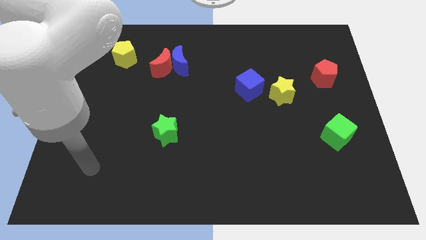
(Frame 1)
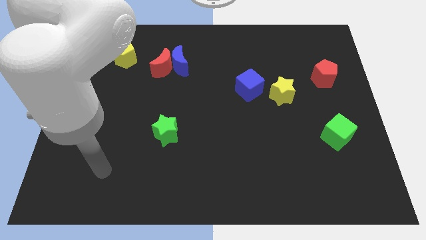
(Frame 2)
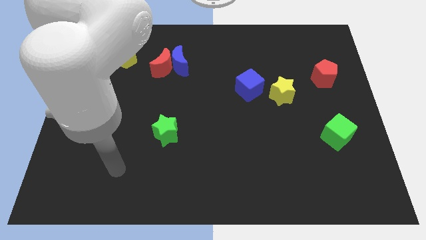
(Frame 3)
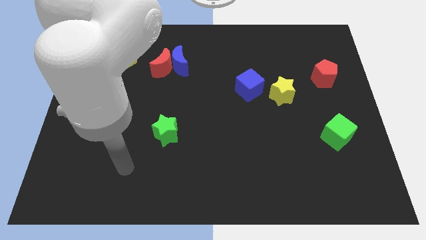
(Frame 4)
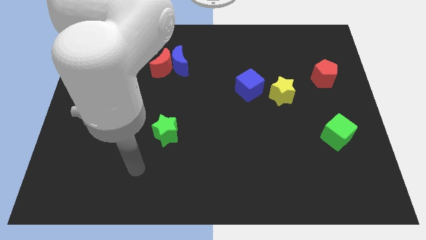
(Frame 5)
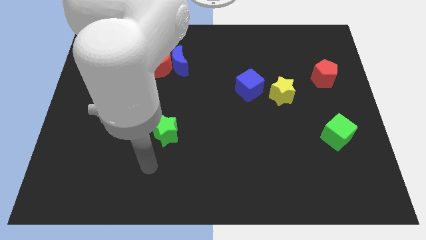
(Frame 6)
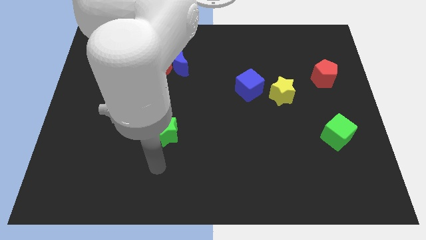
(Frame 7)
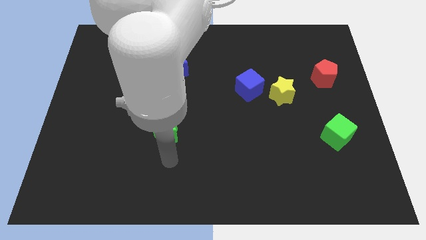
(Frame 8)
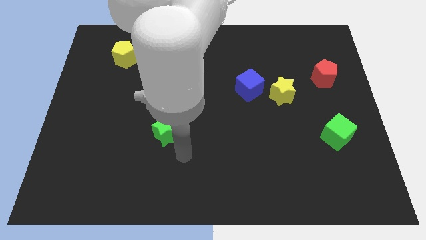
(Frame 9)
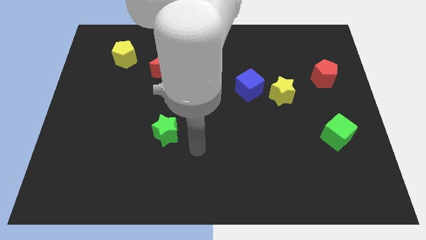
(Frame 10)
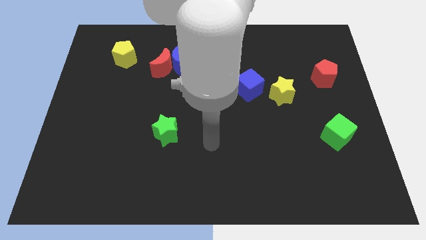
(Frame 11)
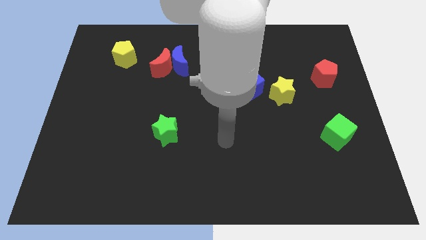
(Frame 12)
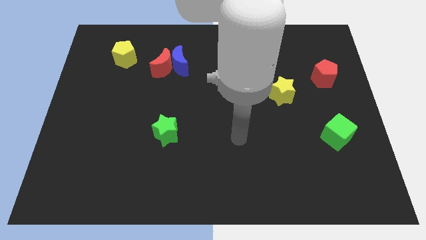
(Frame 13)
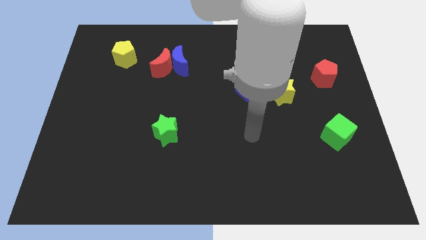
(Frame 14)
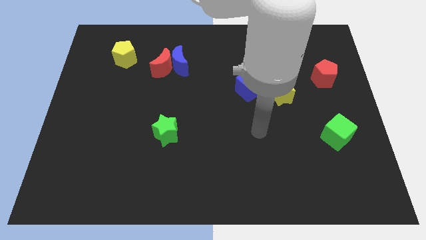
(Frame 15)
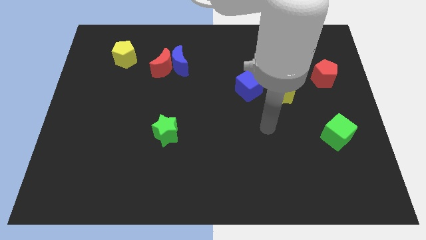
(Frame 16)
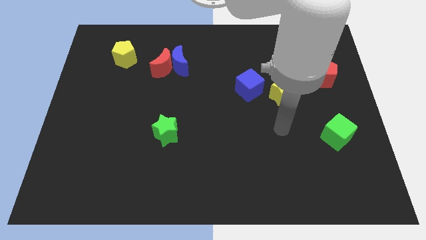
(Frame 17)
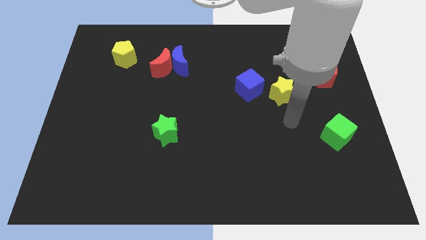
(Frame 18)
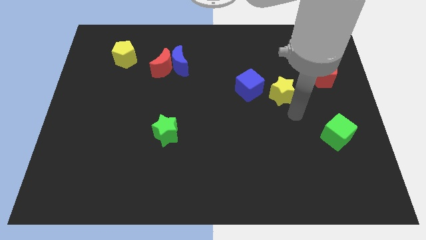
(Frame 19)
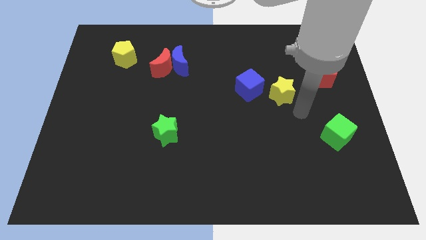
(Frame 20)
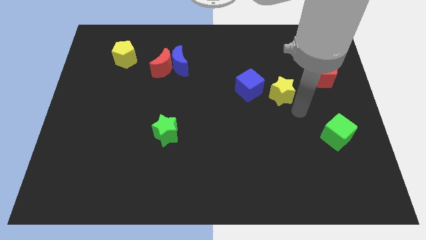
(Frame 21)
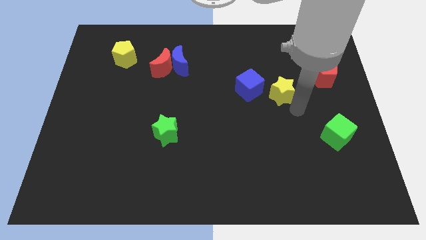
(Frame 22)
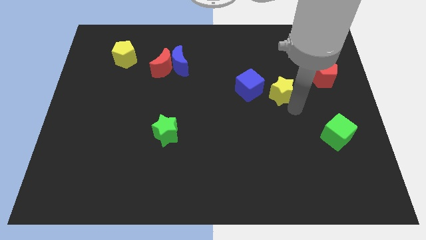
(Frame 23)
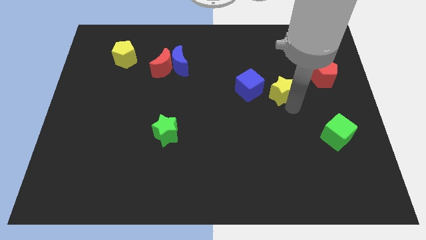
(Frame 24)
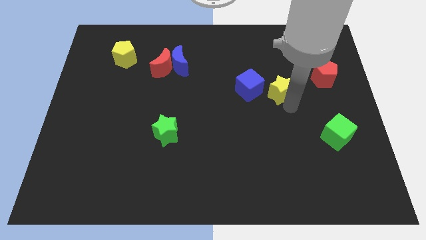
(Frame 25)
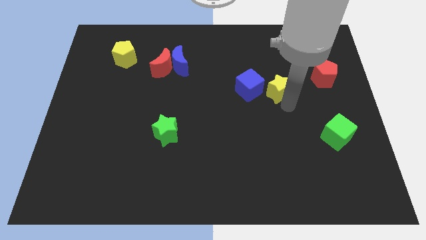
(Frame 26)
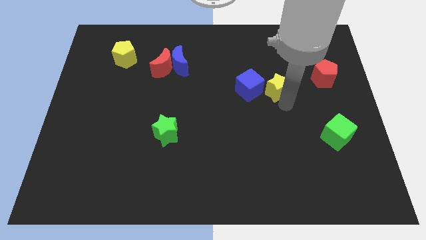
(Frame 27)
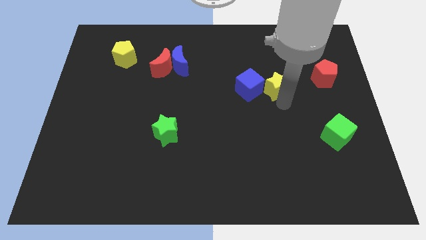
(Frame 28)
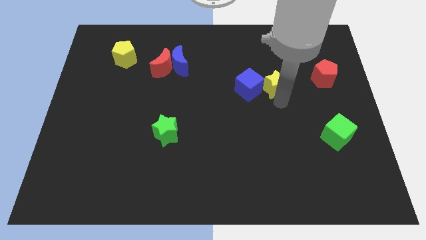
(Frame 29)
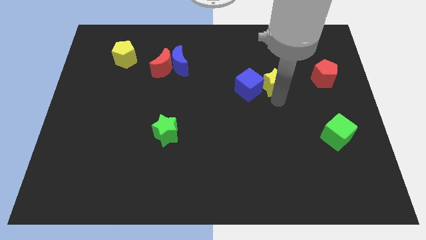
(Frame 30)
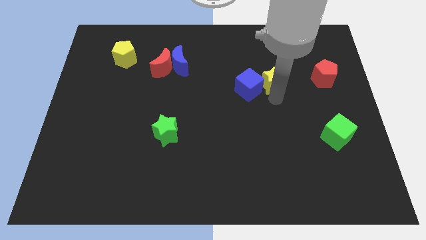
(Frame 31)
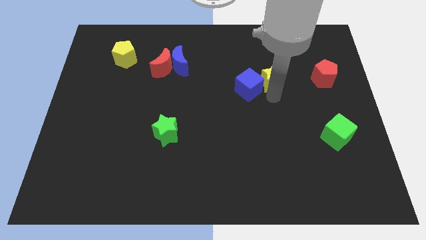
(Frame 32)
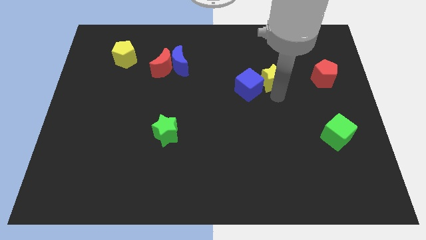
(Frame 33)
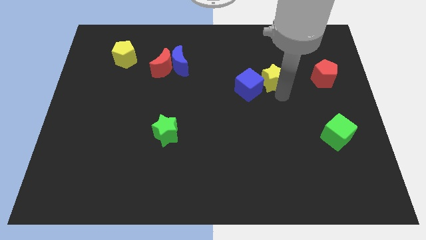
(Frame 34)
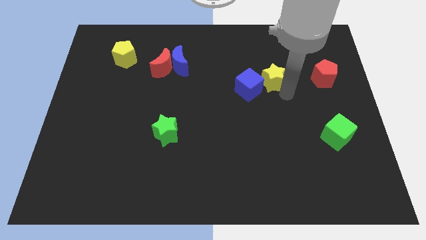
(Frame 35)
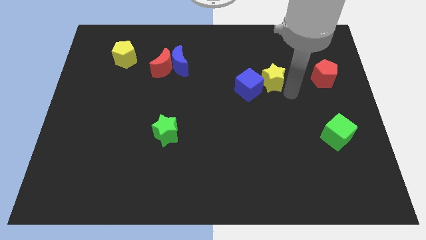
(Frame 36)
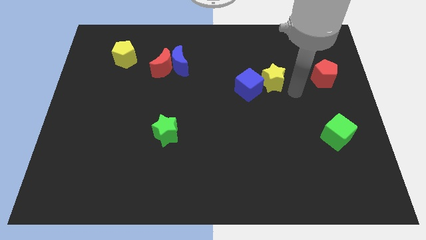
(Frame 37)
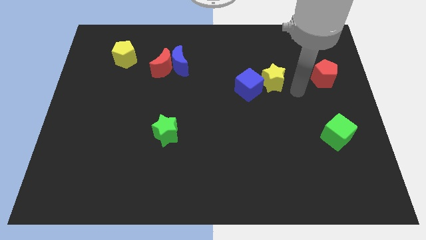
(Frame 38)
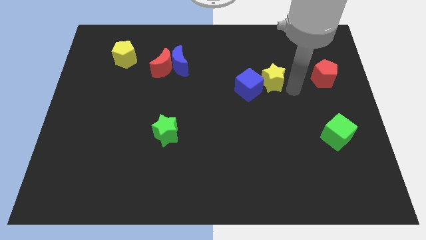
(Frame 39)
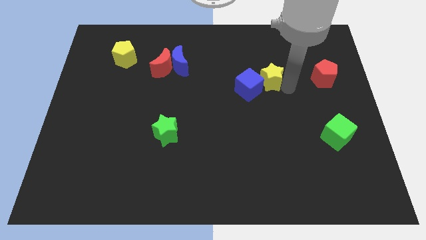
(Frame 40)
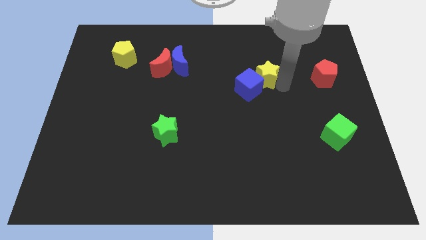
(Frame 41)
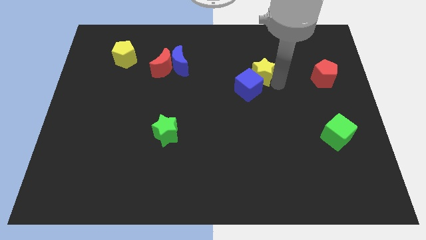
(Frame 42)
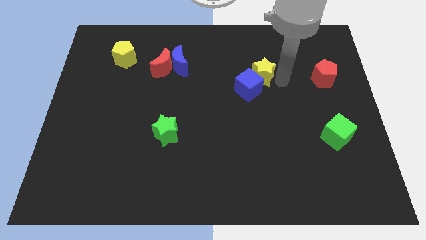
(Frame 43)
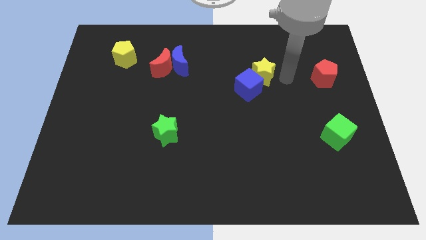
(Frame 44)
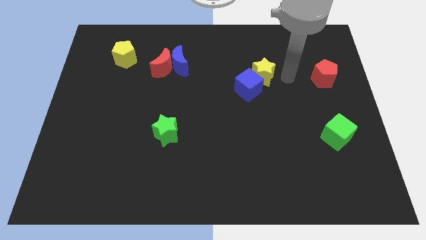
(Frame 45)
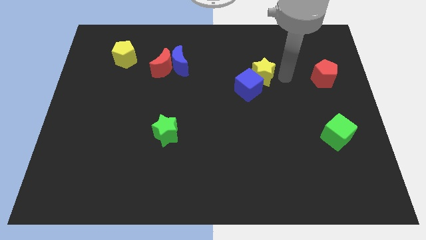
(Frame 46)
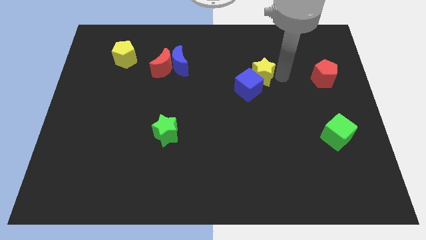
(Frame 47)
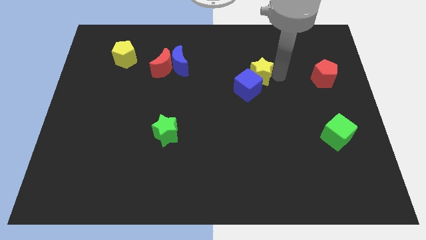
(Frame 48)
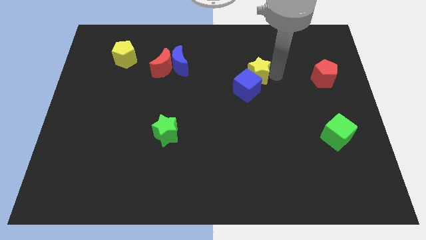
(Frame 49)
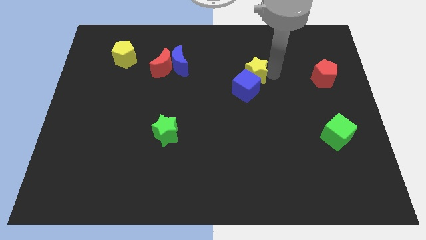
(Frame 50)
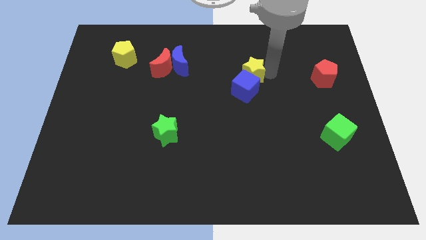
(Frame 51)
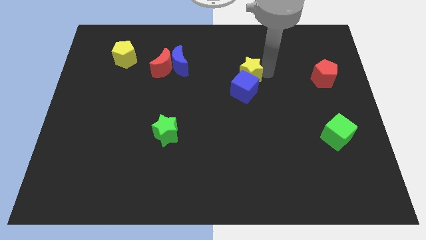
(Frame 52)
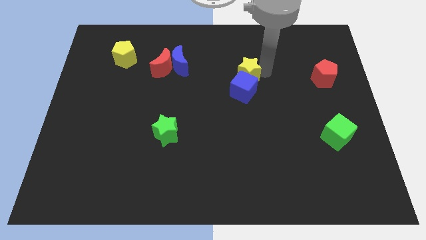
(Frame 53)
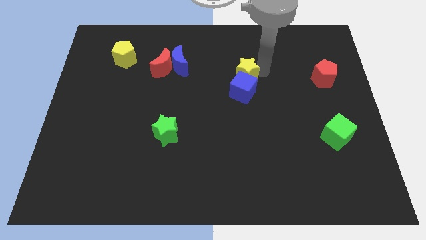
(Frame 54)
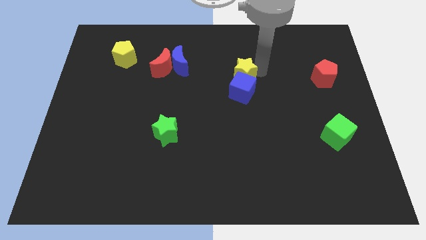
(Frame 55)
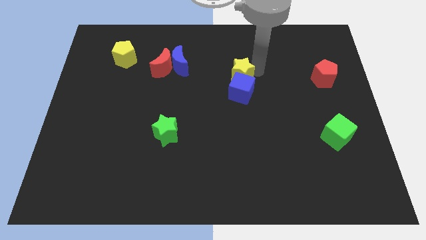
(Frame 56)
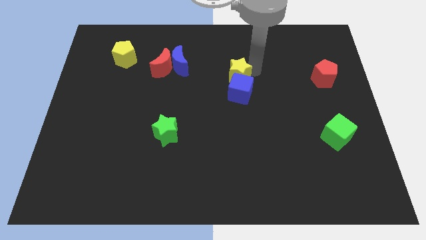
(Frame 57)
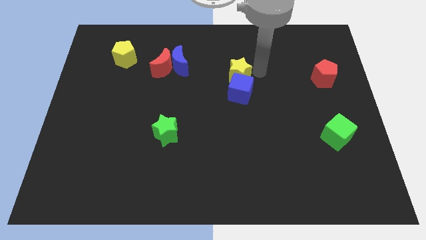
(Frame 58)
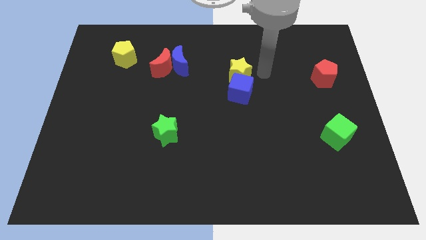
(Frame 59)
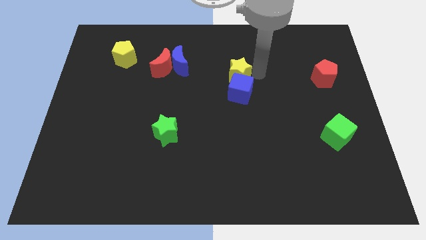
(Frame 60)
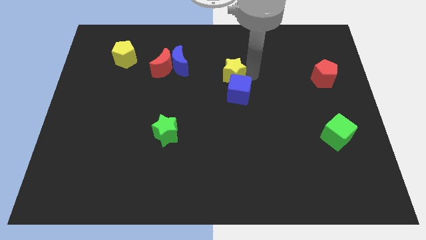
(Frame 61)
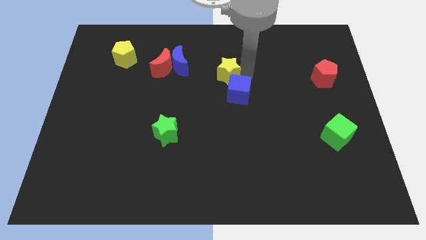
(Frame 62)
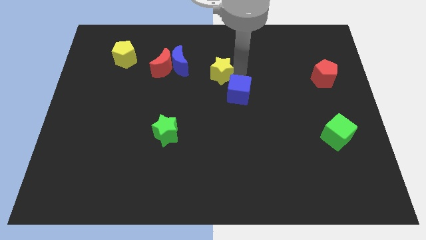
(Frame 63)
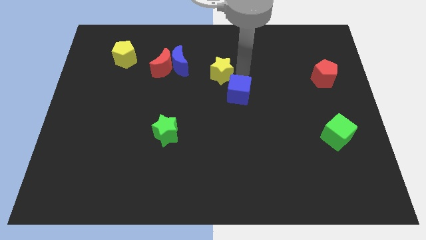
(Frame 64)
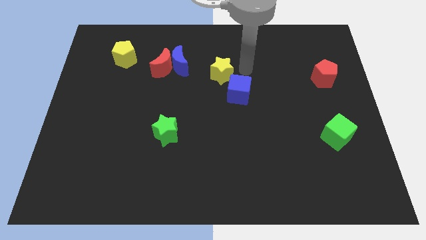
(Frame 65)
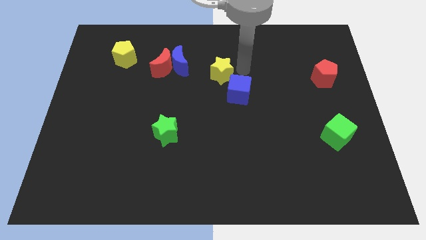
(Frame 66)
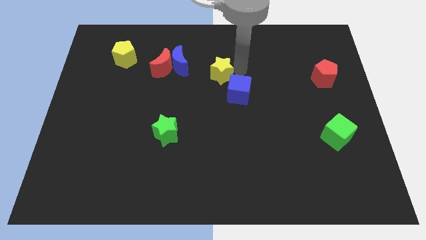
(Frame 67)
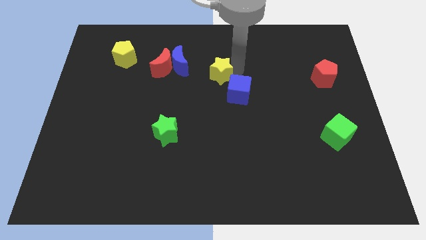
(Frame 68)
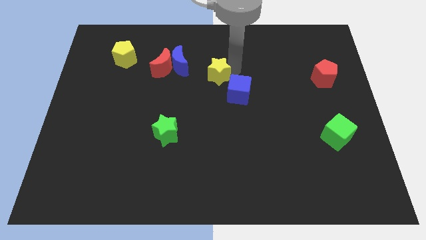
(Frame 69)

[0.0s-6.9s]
slide the yellow star to the bottom right of the blue moon
